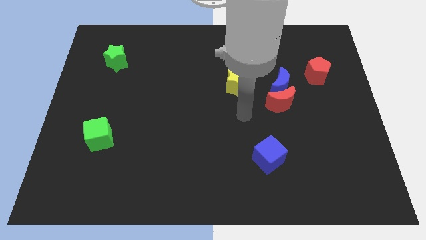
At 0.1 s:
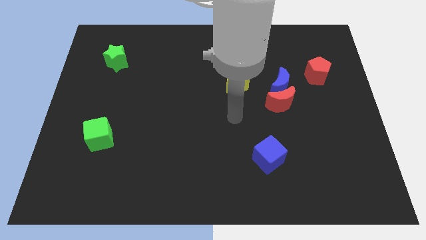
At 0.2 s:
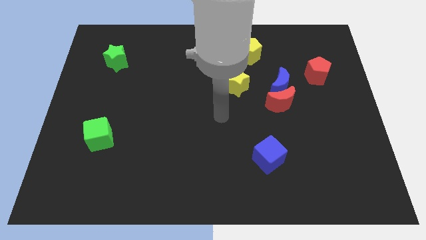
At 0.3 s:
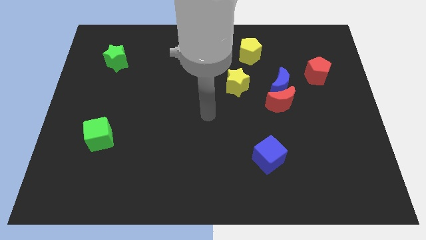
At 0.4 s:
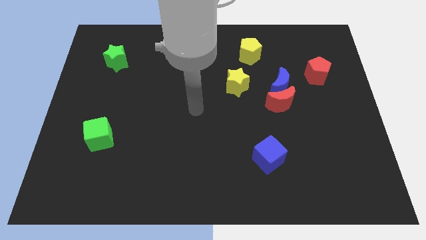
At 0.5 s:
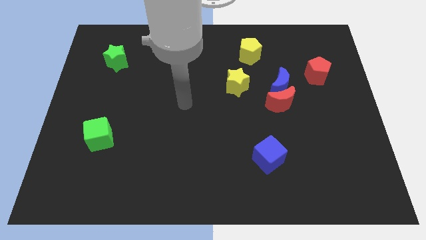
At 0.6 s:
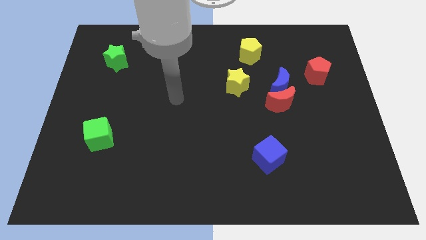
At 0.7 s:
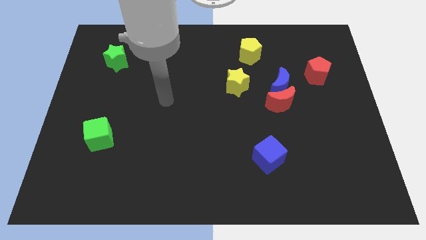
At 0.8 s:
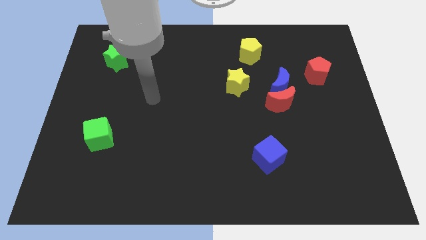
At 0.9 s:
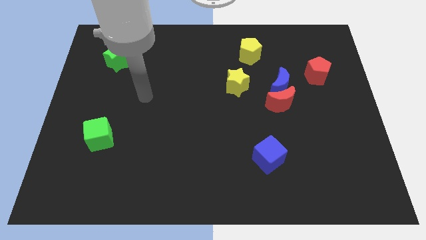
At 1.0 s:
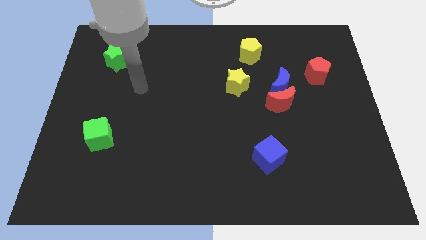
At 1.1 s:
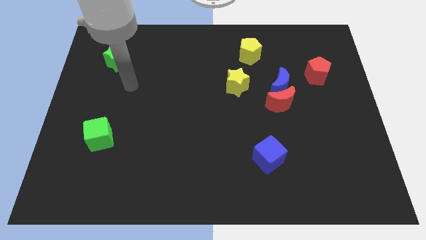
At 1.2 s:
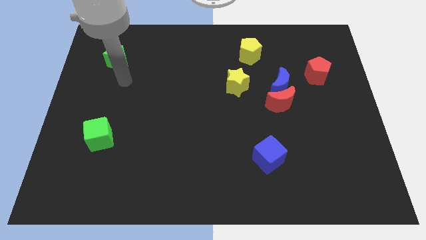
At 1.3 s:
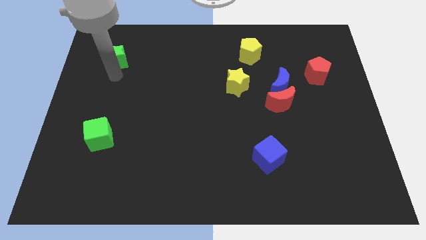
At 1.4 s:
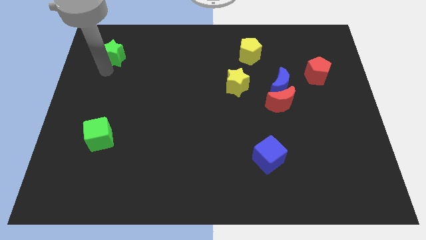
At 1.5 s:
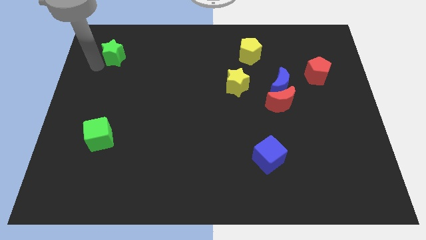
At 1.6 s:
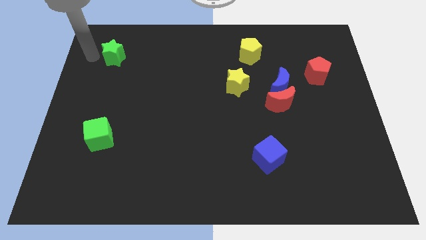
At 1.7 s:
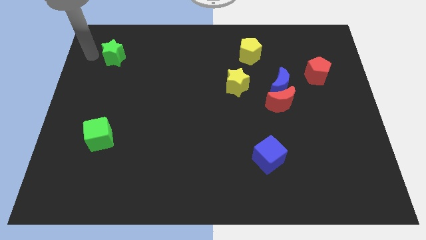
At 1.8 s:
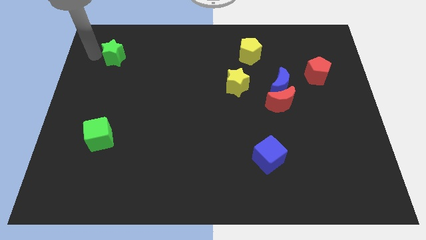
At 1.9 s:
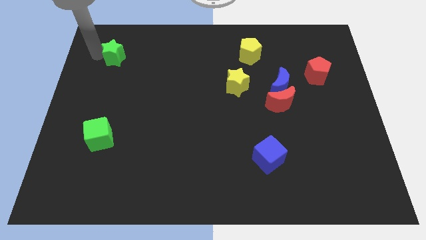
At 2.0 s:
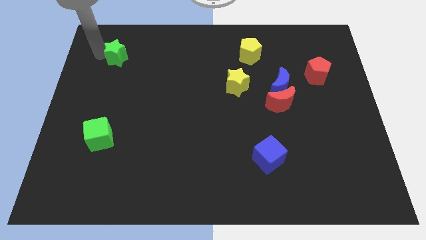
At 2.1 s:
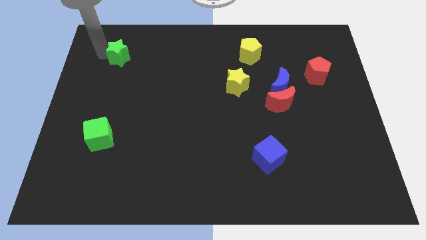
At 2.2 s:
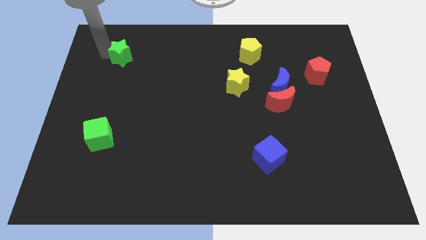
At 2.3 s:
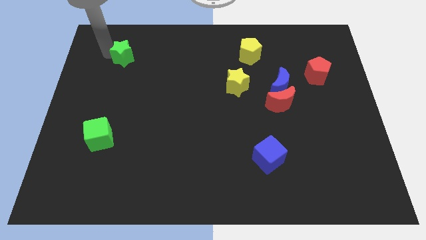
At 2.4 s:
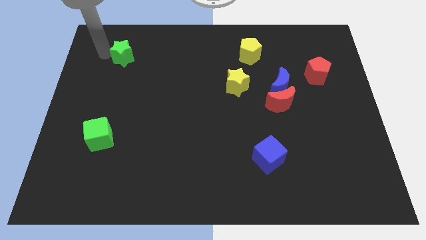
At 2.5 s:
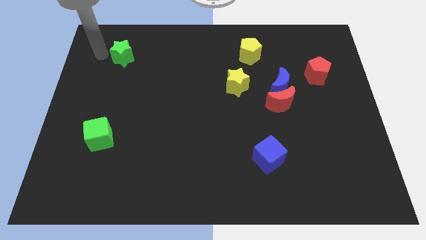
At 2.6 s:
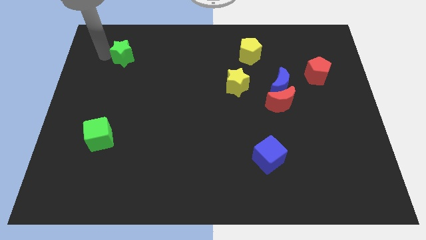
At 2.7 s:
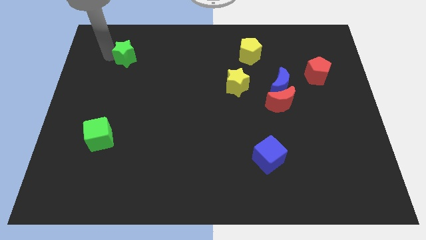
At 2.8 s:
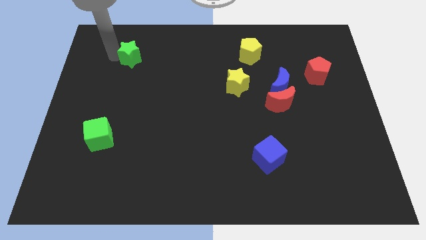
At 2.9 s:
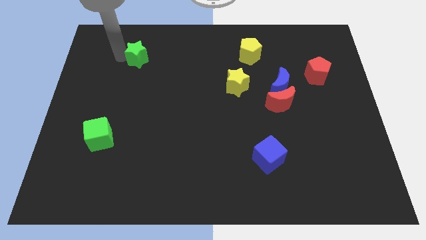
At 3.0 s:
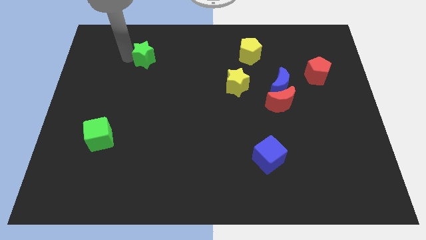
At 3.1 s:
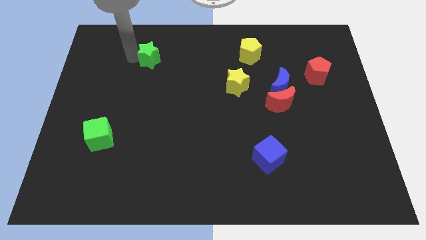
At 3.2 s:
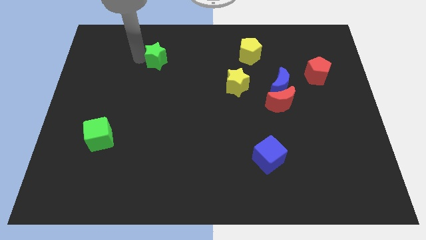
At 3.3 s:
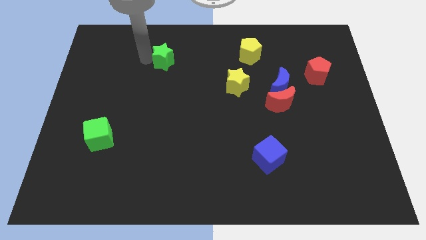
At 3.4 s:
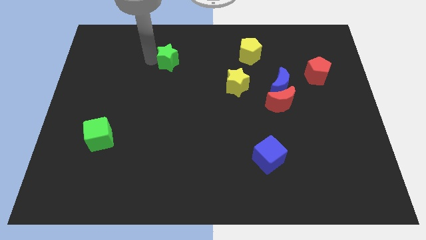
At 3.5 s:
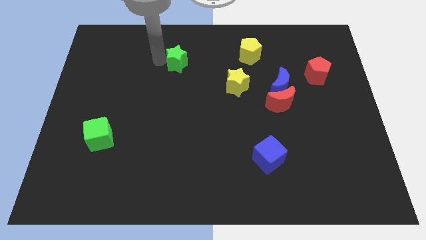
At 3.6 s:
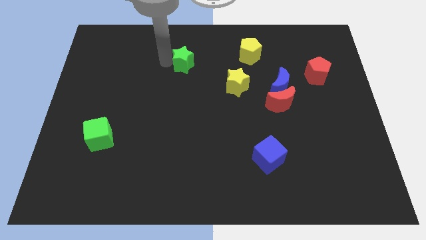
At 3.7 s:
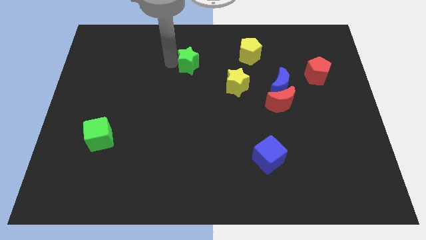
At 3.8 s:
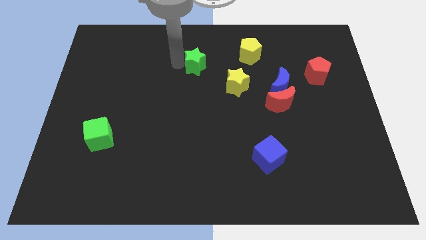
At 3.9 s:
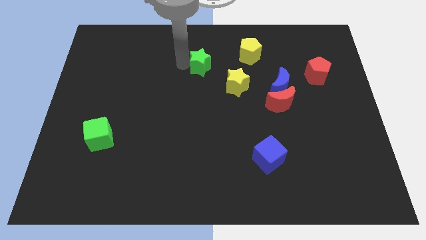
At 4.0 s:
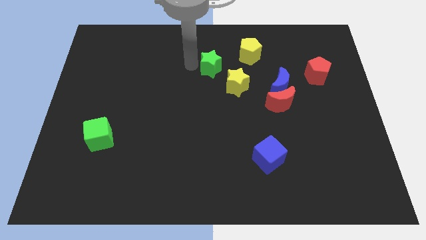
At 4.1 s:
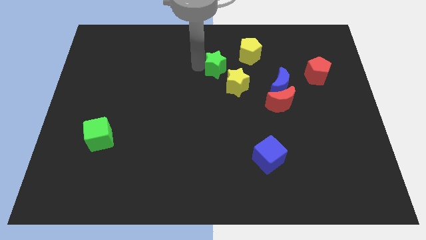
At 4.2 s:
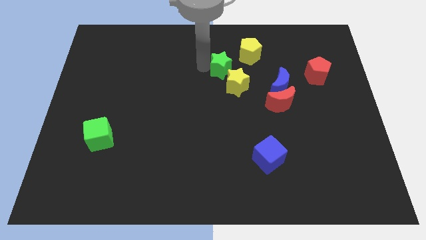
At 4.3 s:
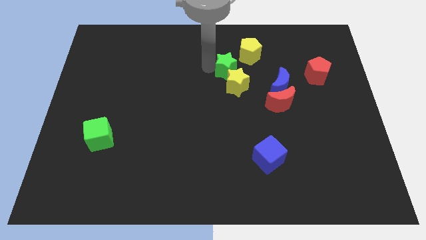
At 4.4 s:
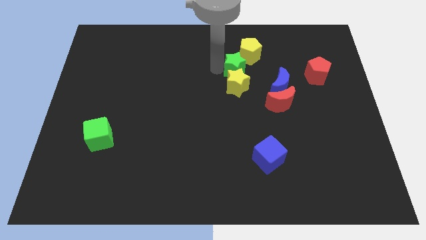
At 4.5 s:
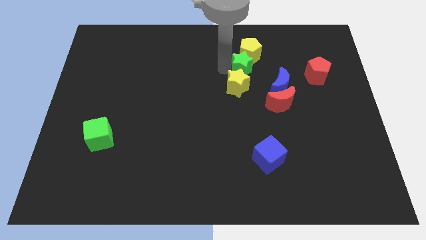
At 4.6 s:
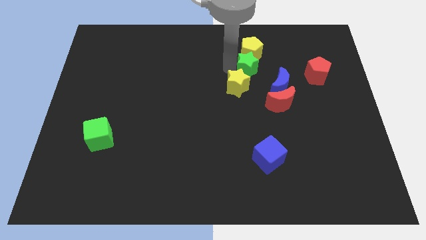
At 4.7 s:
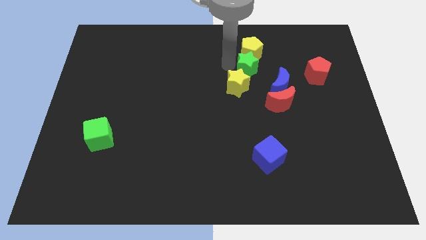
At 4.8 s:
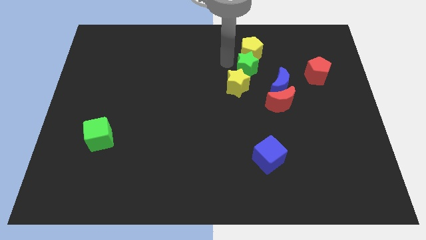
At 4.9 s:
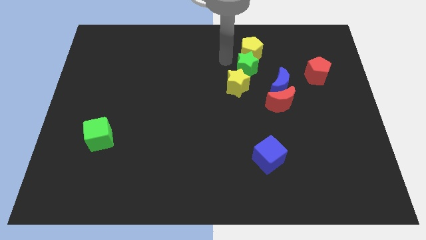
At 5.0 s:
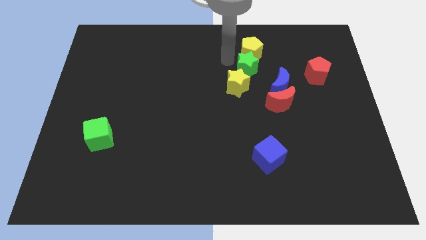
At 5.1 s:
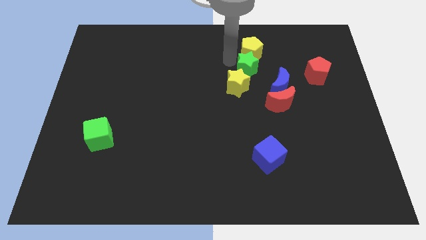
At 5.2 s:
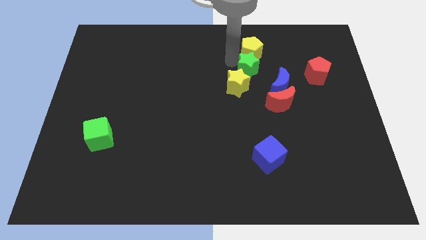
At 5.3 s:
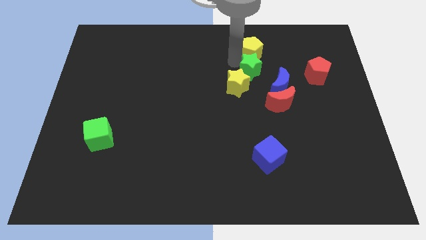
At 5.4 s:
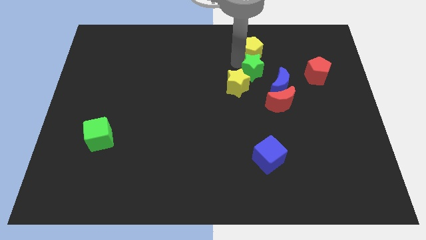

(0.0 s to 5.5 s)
put the green star left of the red pentagon

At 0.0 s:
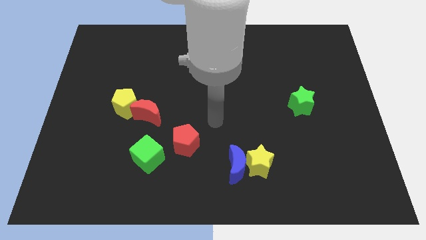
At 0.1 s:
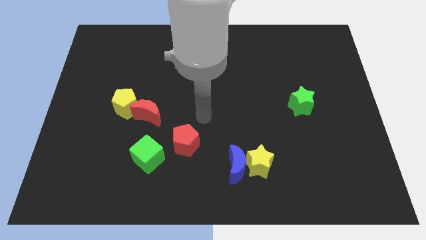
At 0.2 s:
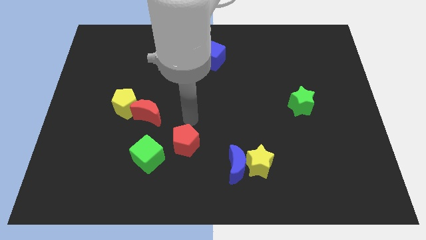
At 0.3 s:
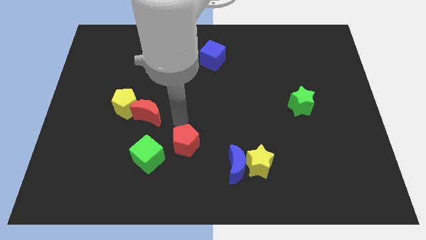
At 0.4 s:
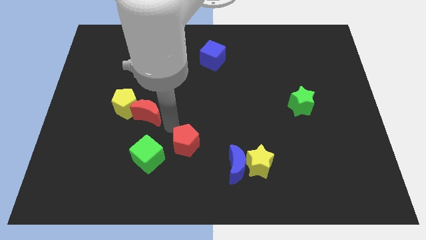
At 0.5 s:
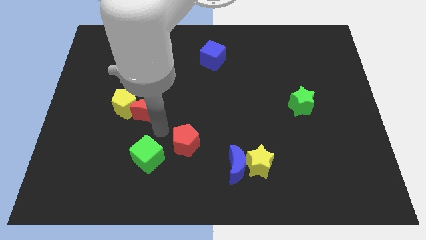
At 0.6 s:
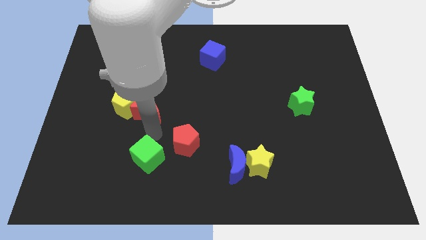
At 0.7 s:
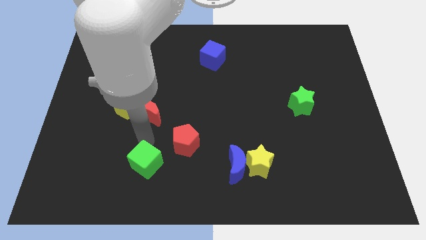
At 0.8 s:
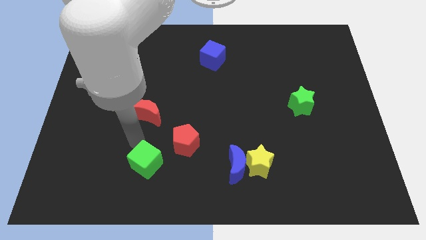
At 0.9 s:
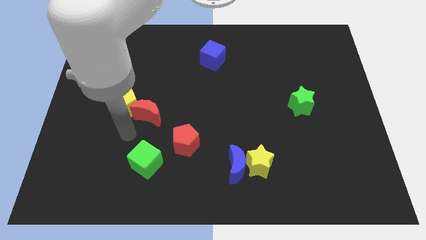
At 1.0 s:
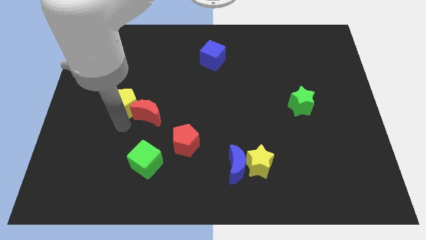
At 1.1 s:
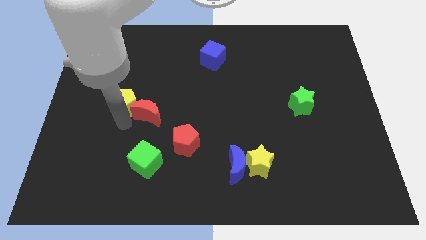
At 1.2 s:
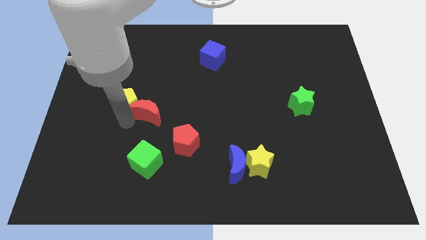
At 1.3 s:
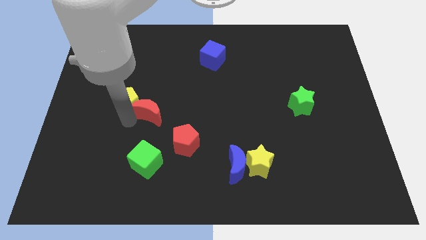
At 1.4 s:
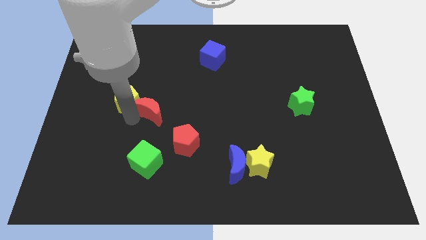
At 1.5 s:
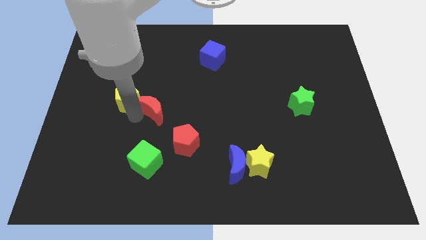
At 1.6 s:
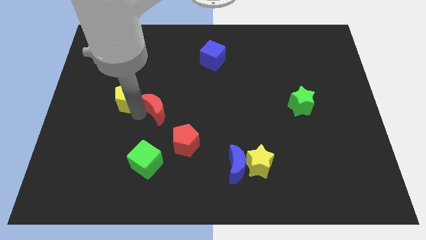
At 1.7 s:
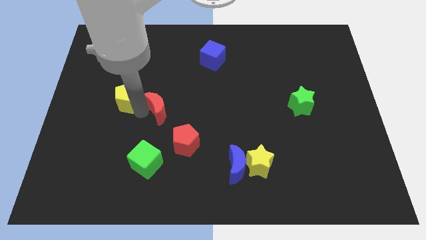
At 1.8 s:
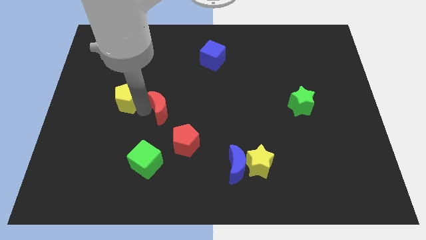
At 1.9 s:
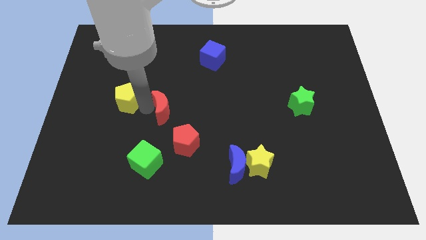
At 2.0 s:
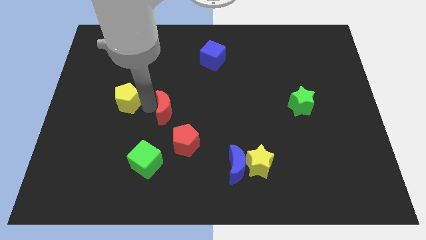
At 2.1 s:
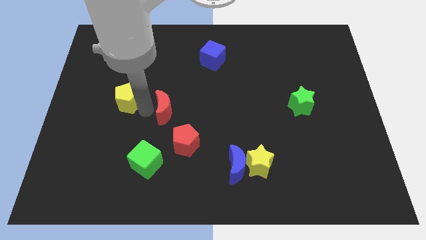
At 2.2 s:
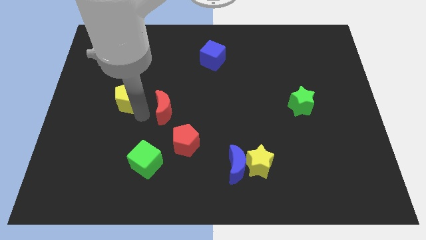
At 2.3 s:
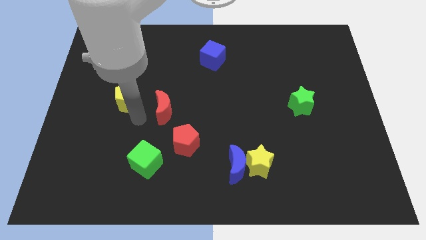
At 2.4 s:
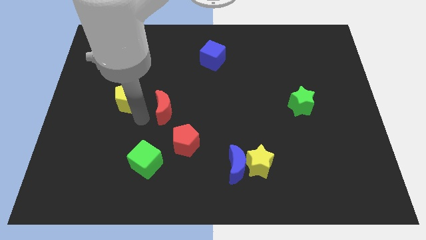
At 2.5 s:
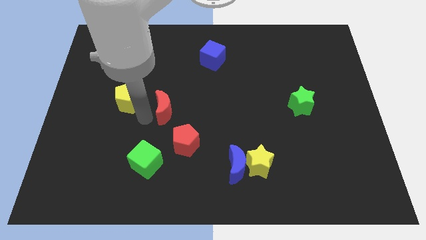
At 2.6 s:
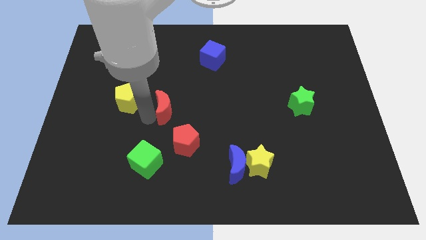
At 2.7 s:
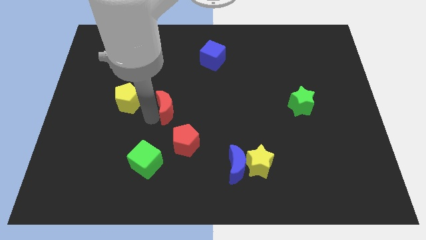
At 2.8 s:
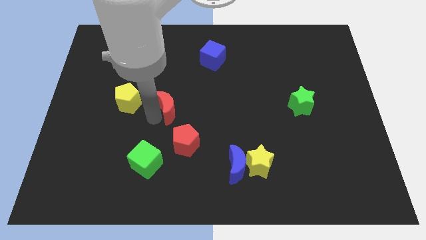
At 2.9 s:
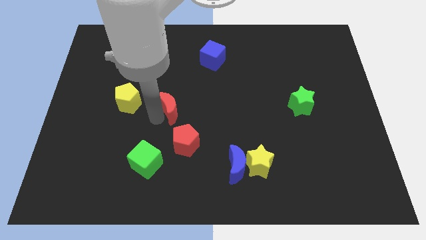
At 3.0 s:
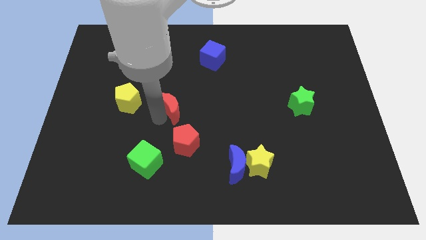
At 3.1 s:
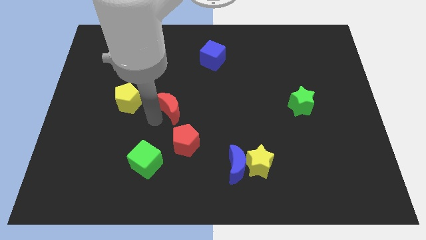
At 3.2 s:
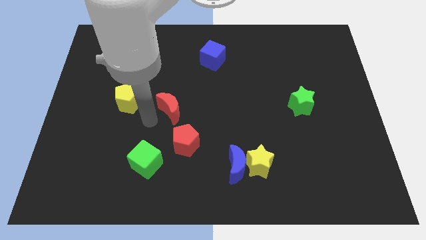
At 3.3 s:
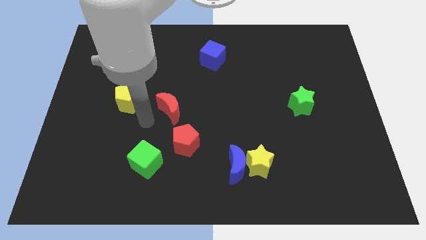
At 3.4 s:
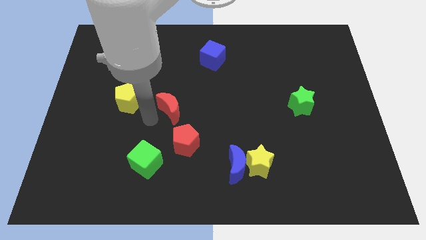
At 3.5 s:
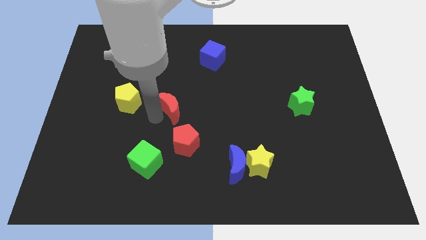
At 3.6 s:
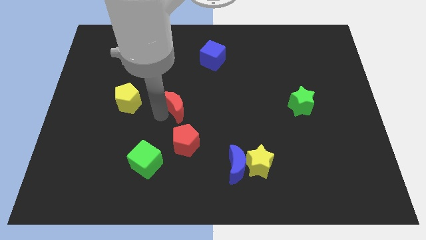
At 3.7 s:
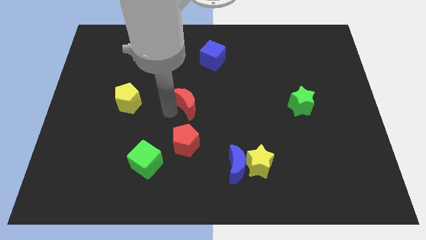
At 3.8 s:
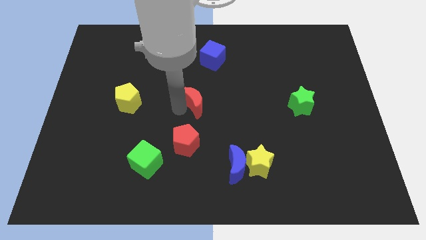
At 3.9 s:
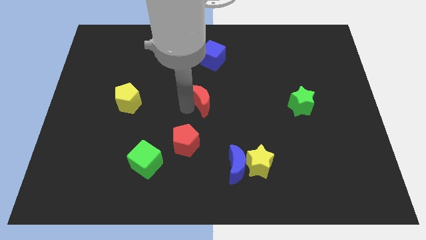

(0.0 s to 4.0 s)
slide the red moon to the bottom of the blue cube
